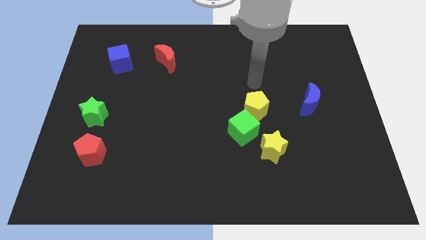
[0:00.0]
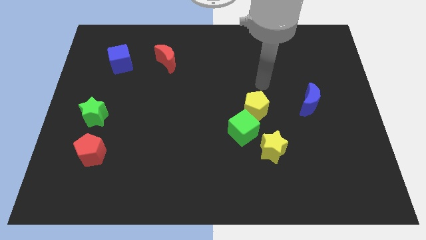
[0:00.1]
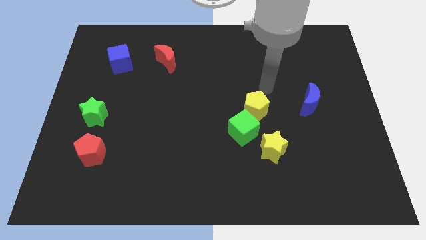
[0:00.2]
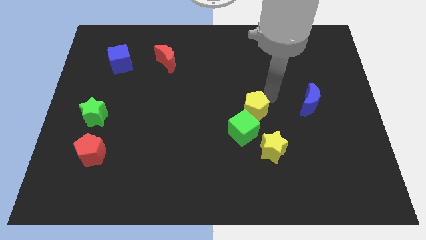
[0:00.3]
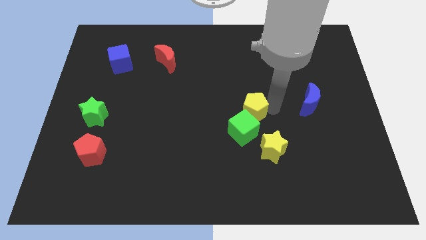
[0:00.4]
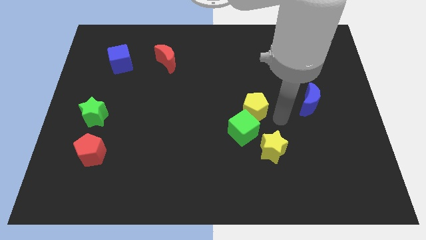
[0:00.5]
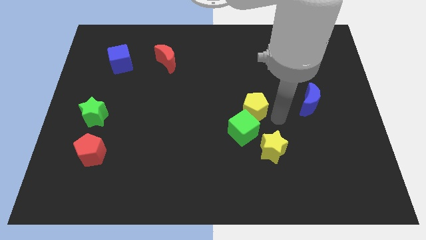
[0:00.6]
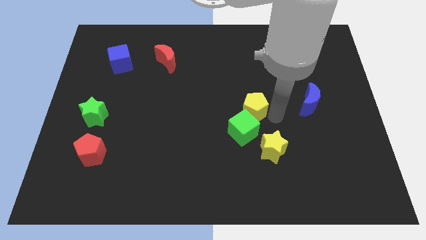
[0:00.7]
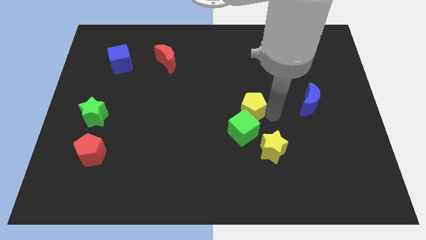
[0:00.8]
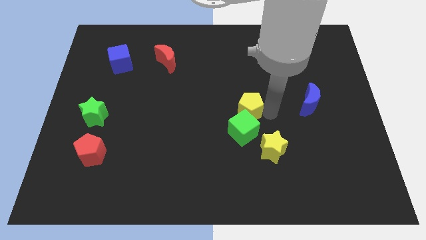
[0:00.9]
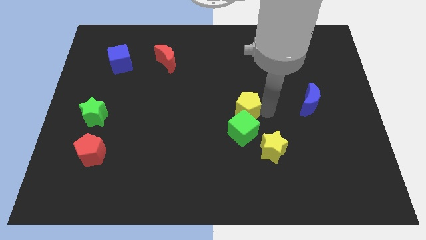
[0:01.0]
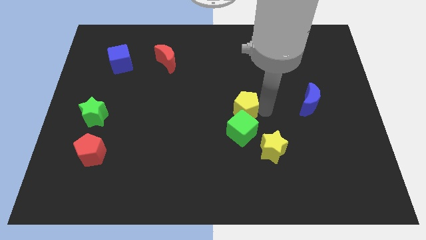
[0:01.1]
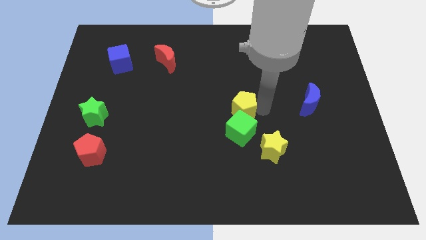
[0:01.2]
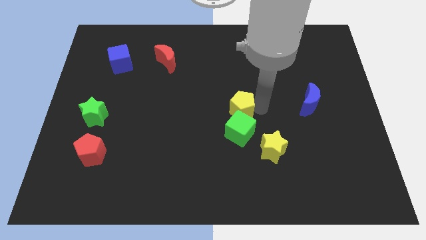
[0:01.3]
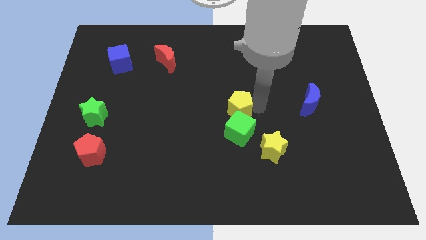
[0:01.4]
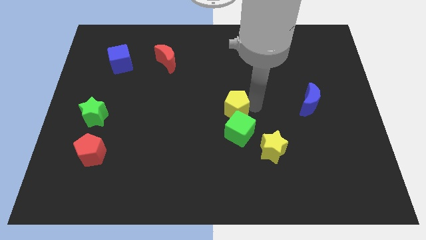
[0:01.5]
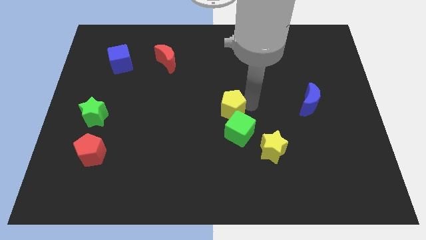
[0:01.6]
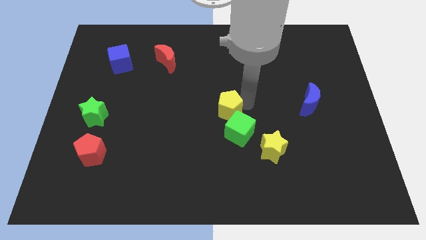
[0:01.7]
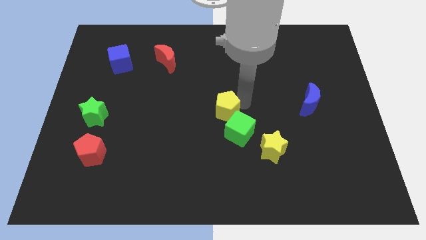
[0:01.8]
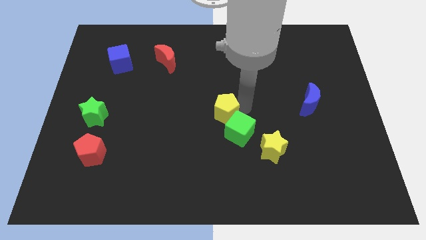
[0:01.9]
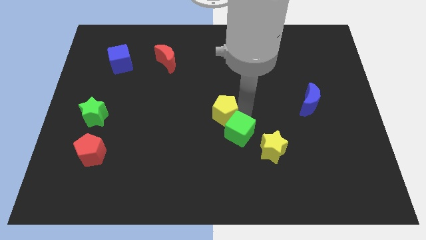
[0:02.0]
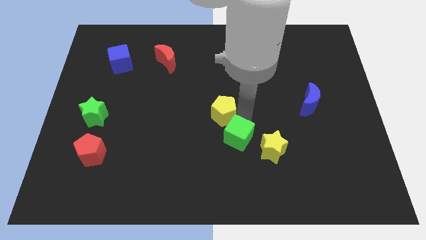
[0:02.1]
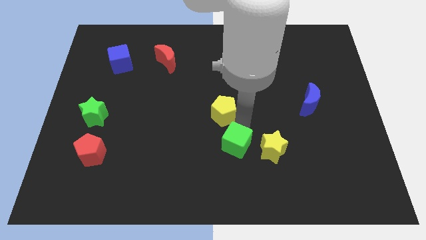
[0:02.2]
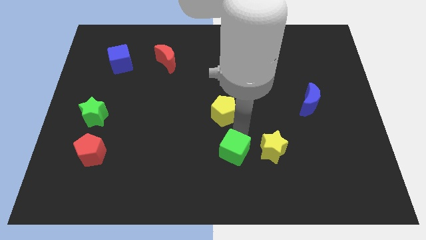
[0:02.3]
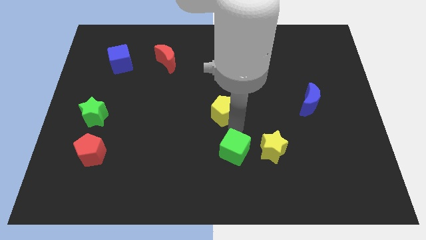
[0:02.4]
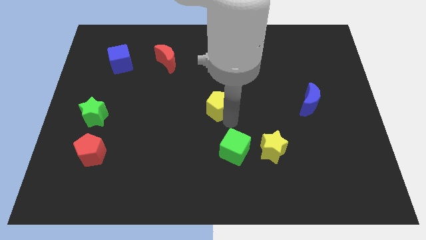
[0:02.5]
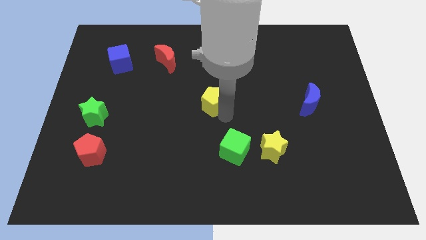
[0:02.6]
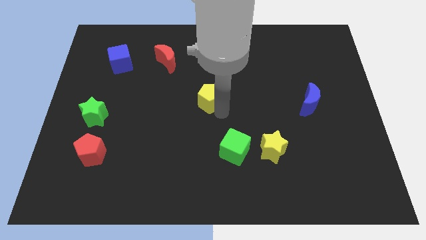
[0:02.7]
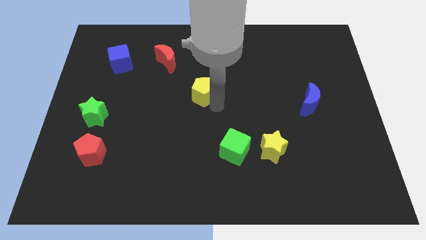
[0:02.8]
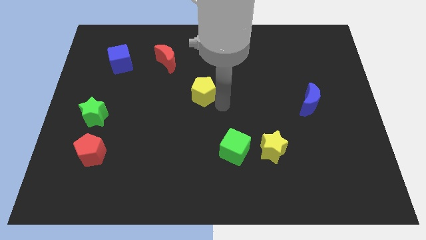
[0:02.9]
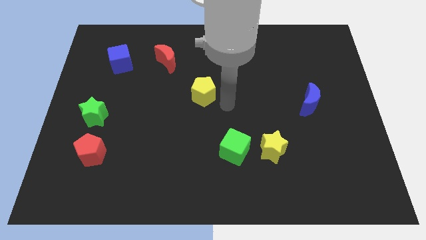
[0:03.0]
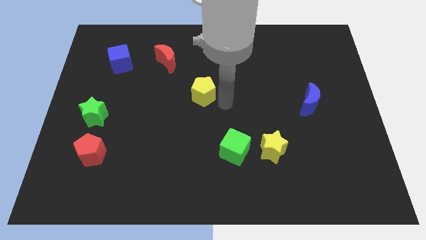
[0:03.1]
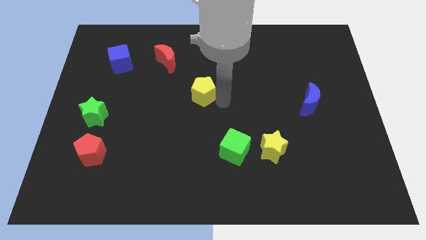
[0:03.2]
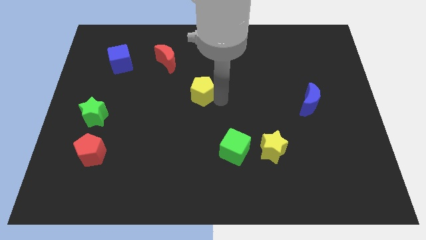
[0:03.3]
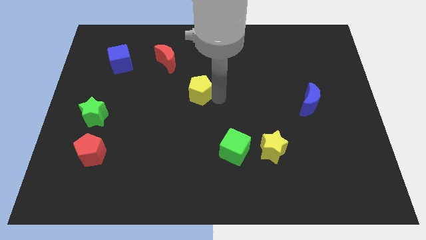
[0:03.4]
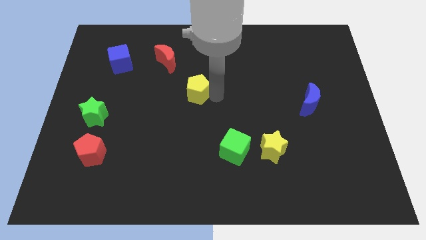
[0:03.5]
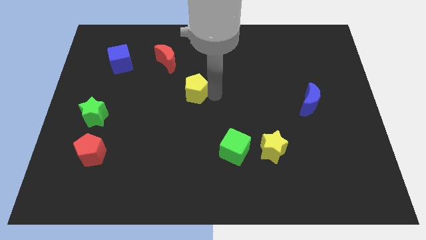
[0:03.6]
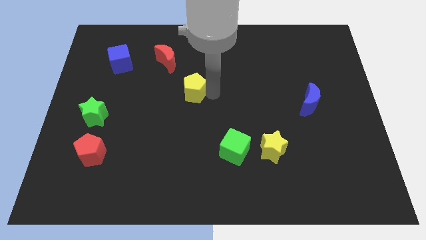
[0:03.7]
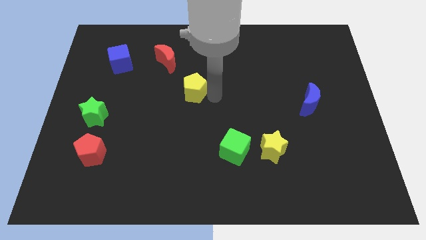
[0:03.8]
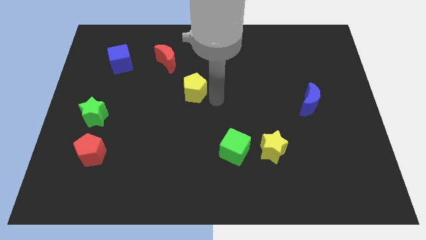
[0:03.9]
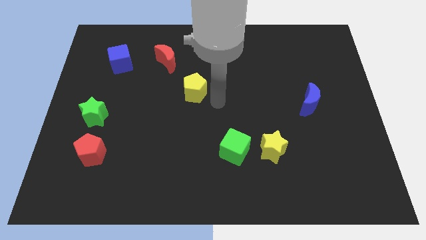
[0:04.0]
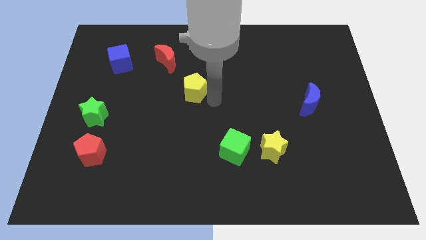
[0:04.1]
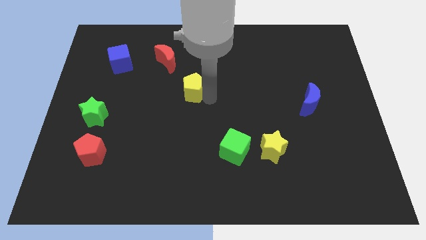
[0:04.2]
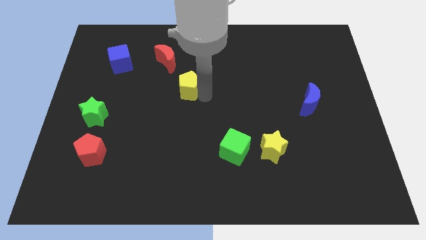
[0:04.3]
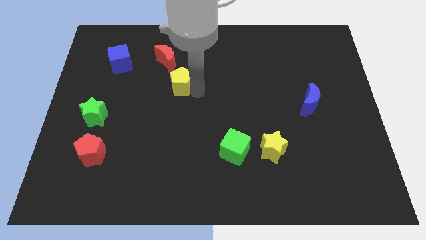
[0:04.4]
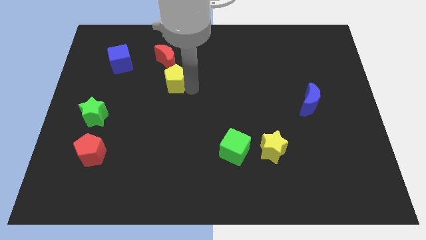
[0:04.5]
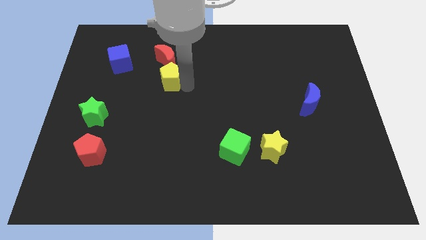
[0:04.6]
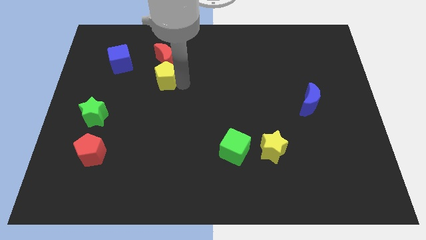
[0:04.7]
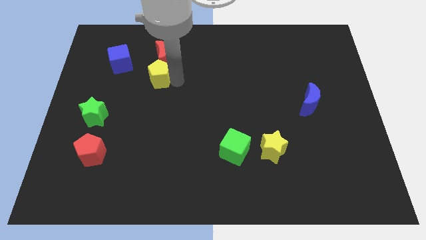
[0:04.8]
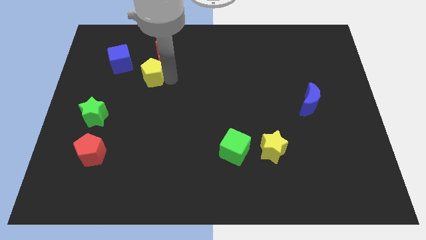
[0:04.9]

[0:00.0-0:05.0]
push the yellow pentagon diagonally down and to the right of the blue cube

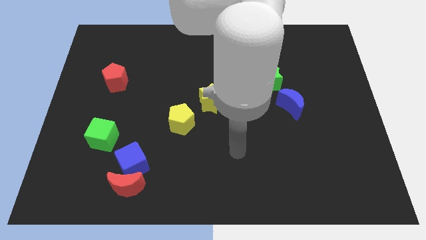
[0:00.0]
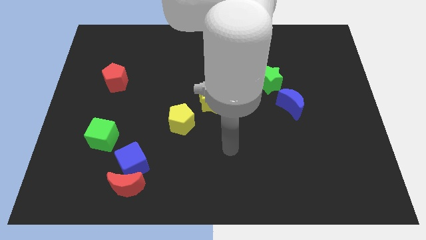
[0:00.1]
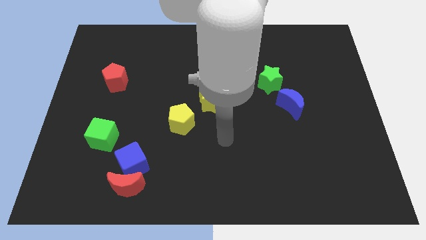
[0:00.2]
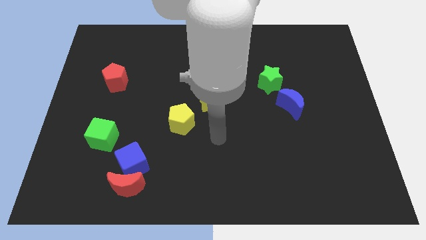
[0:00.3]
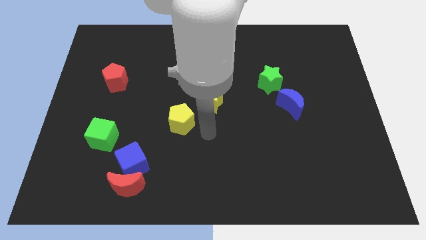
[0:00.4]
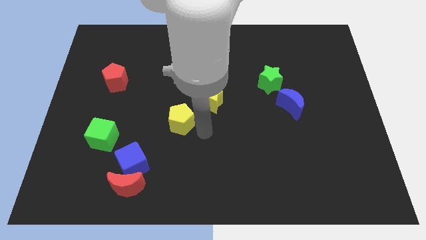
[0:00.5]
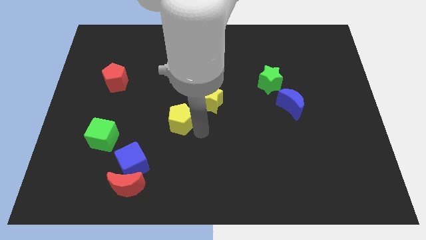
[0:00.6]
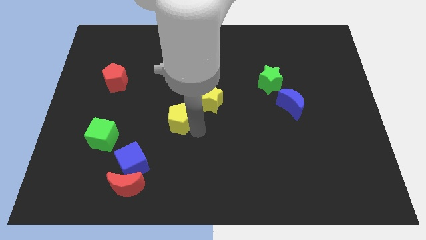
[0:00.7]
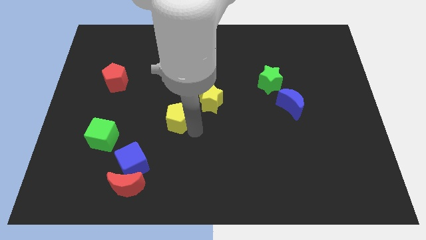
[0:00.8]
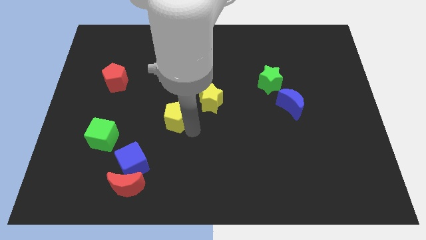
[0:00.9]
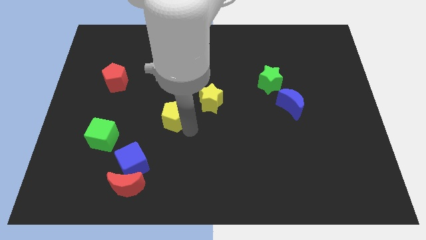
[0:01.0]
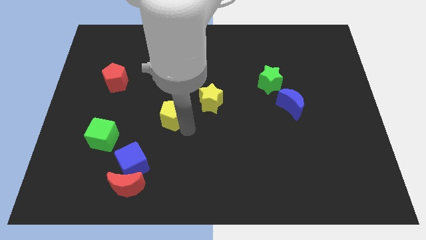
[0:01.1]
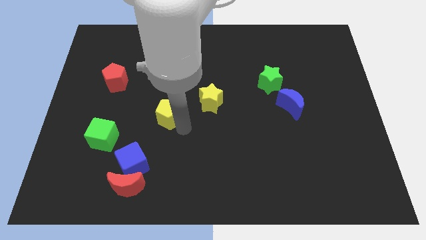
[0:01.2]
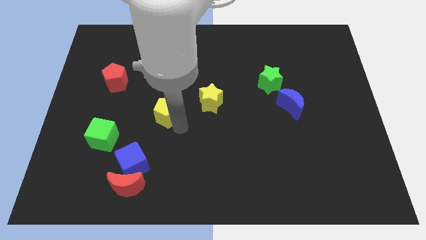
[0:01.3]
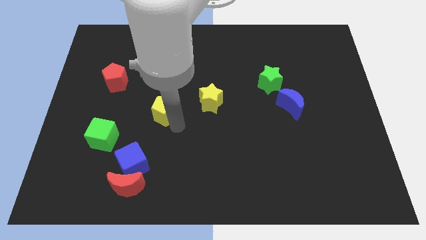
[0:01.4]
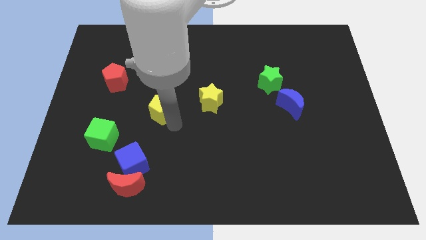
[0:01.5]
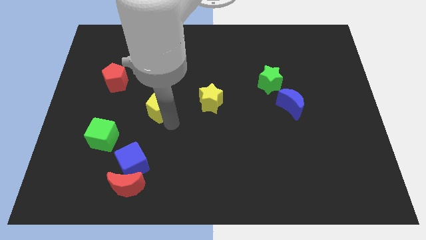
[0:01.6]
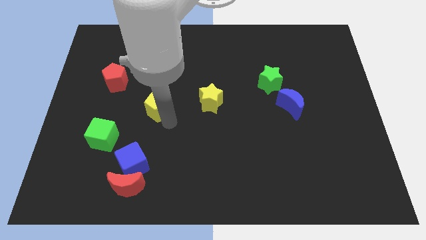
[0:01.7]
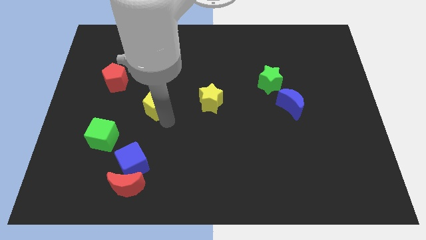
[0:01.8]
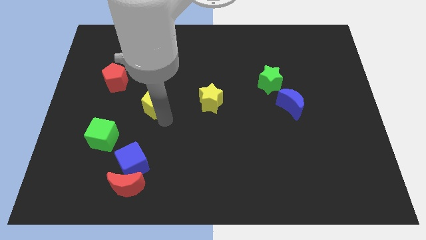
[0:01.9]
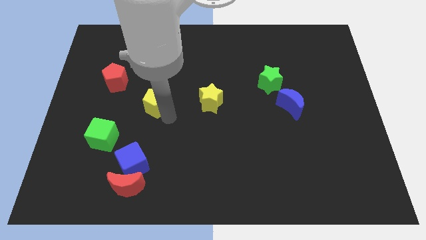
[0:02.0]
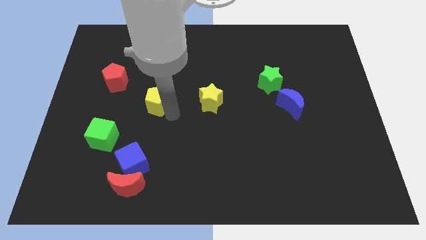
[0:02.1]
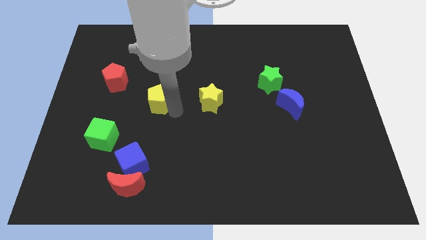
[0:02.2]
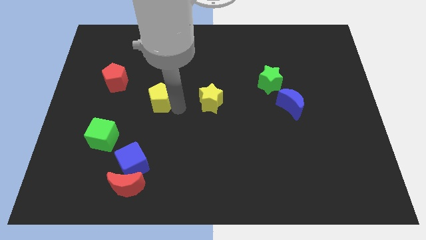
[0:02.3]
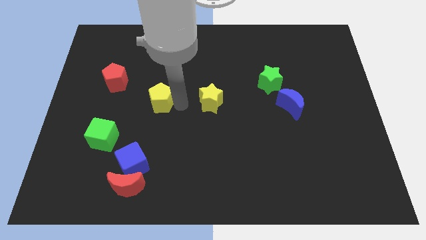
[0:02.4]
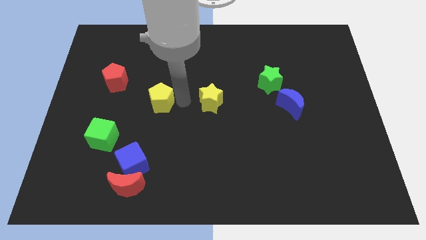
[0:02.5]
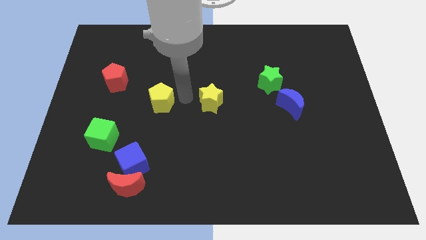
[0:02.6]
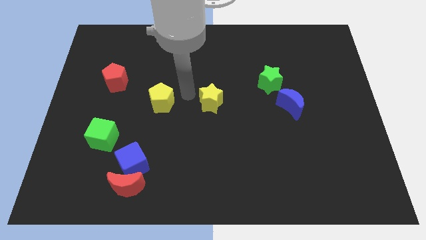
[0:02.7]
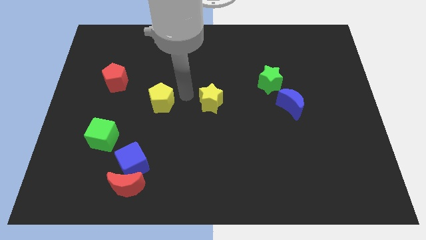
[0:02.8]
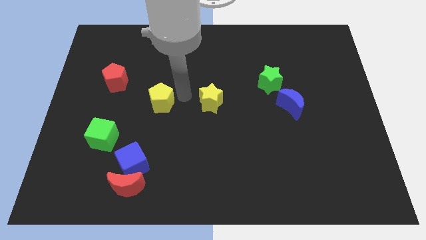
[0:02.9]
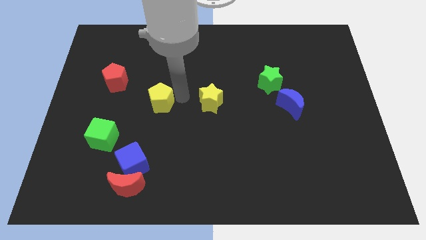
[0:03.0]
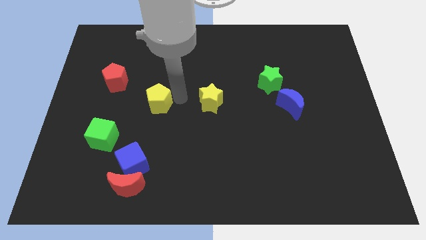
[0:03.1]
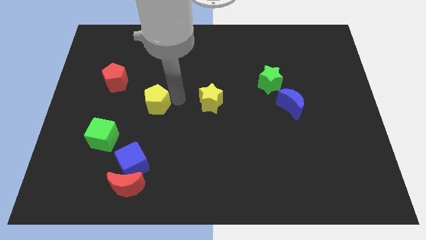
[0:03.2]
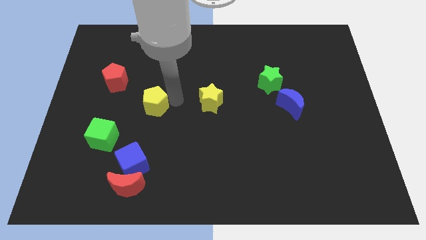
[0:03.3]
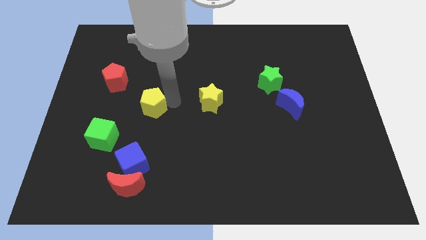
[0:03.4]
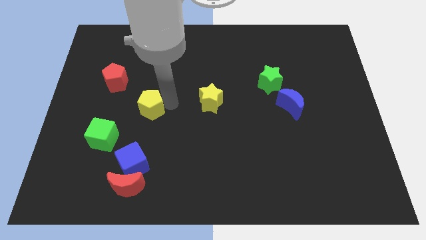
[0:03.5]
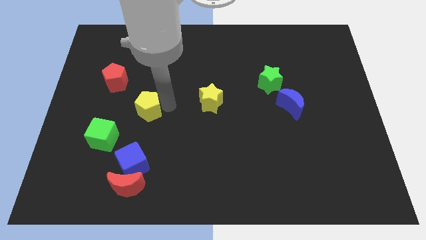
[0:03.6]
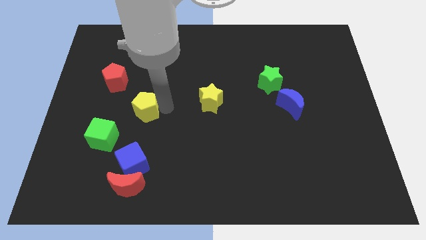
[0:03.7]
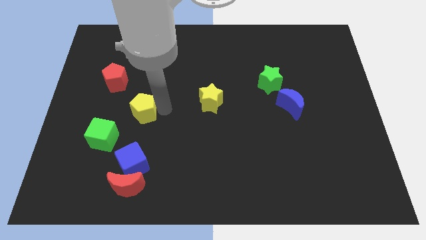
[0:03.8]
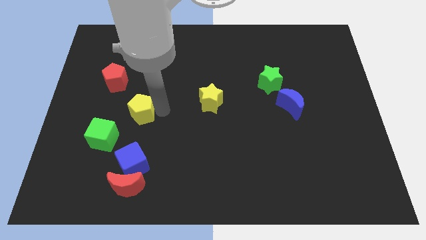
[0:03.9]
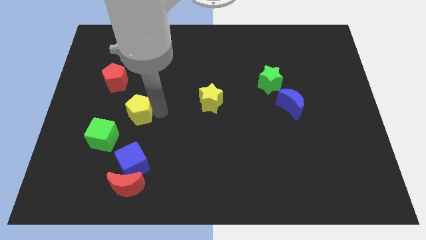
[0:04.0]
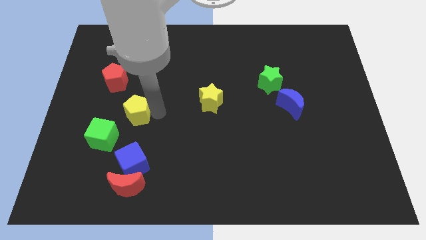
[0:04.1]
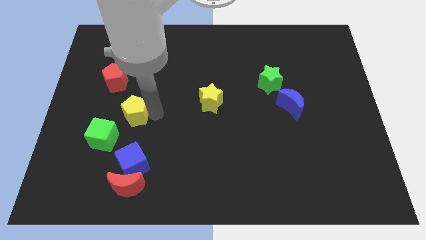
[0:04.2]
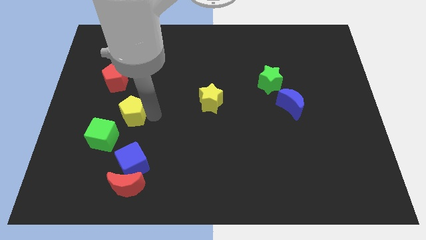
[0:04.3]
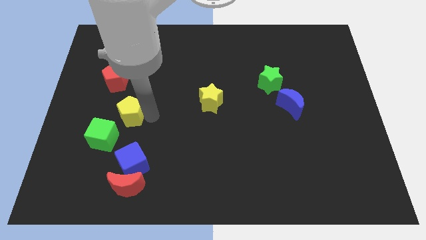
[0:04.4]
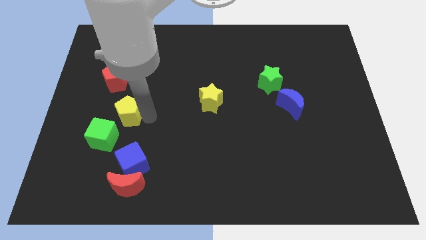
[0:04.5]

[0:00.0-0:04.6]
put the yellow pentagon to the top side of the green cube
